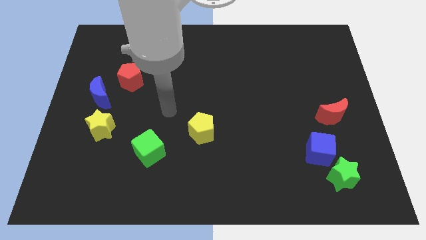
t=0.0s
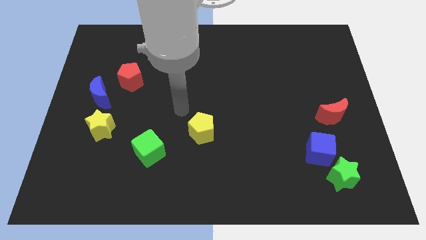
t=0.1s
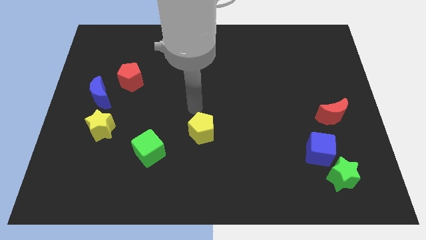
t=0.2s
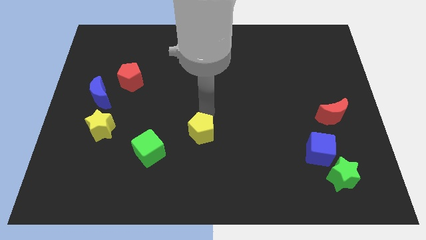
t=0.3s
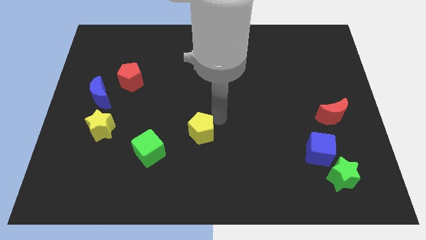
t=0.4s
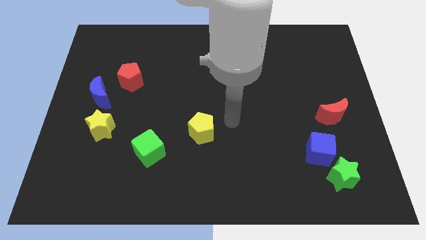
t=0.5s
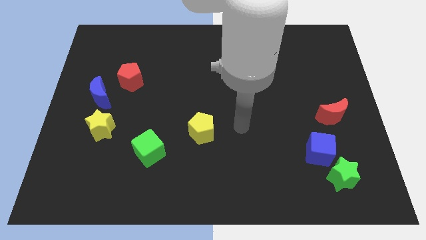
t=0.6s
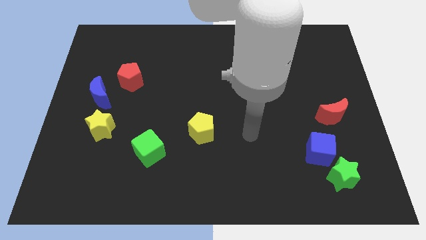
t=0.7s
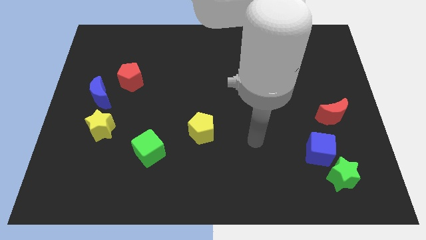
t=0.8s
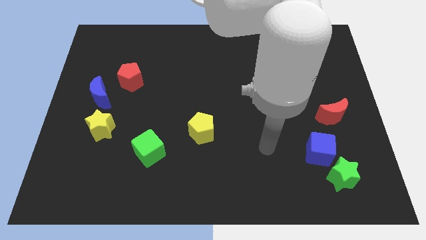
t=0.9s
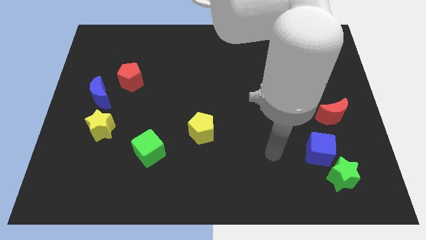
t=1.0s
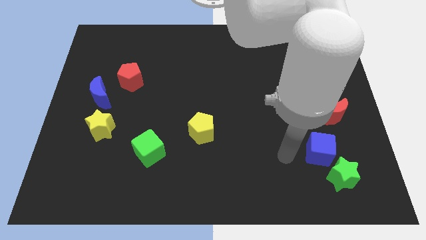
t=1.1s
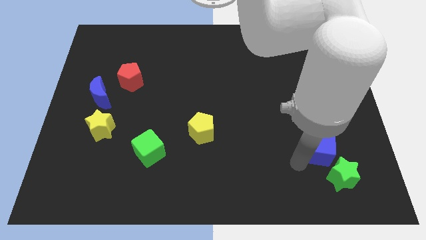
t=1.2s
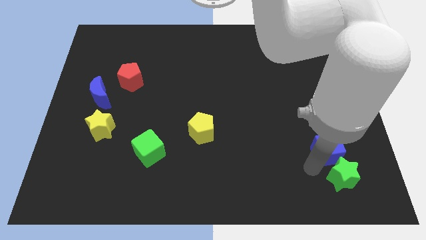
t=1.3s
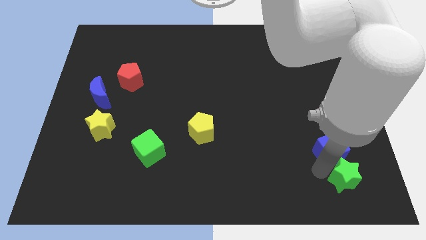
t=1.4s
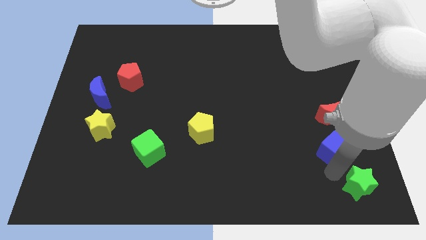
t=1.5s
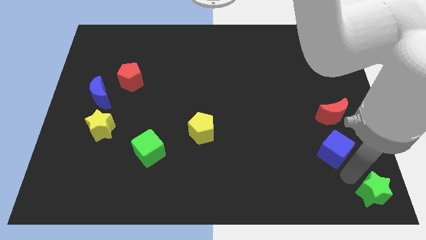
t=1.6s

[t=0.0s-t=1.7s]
move the blue cube away from the green star

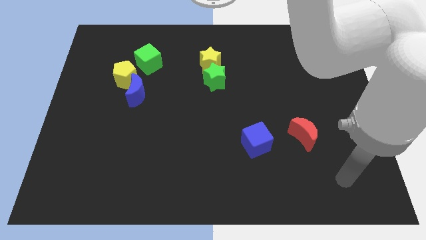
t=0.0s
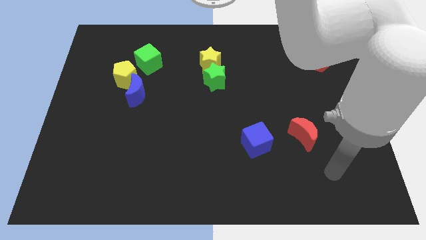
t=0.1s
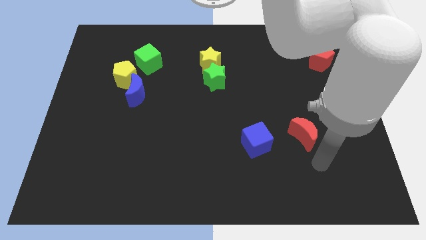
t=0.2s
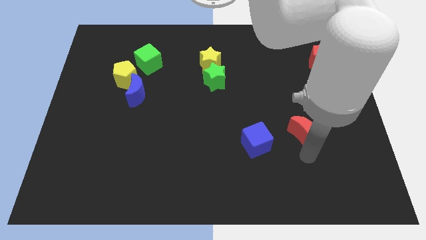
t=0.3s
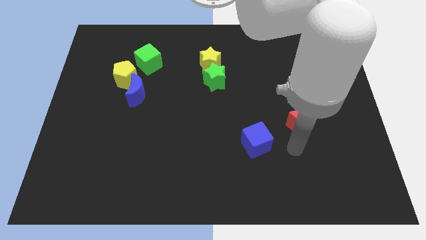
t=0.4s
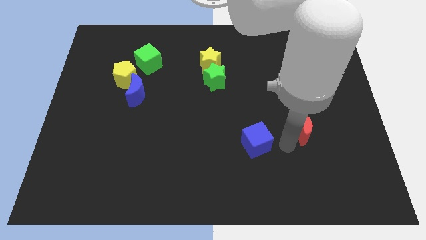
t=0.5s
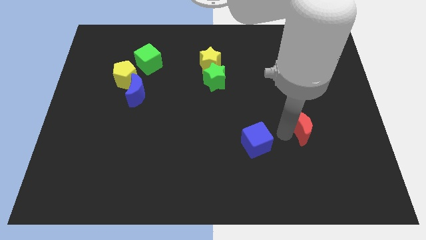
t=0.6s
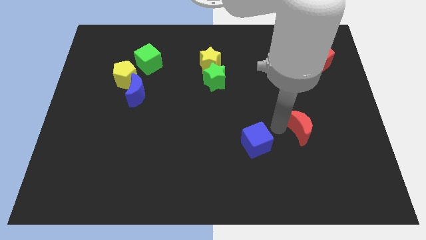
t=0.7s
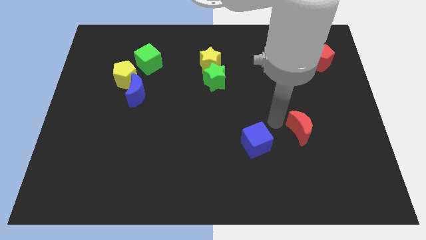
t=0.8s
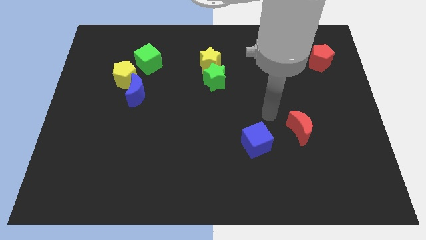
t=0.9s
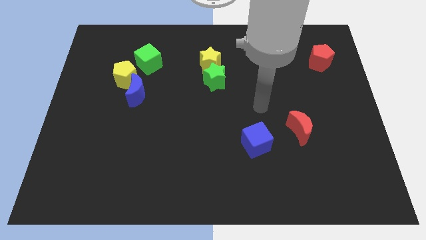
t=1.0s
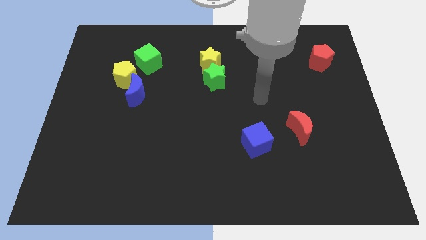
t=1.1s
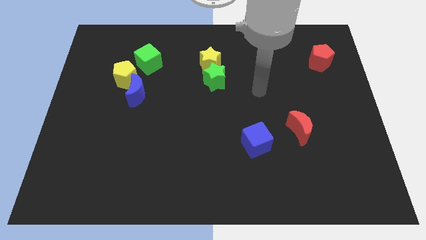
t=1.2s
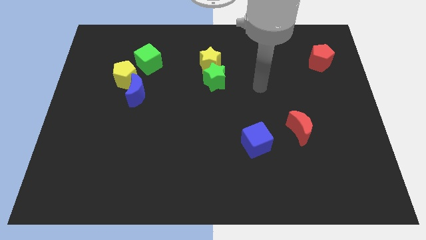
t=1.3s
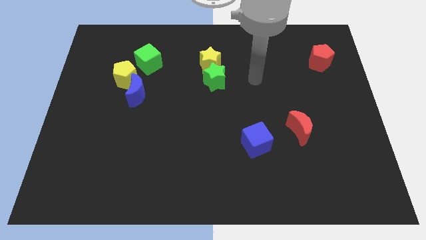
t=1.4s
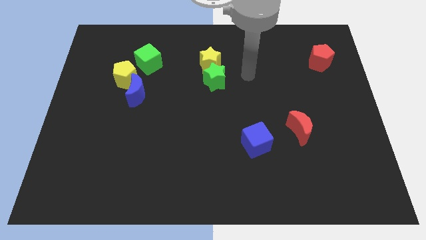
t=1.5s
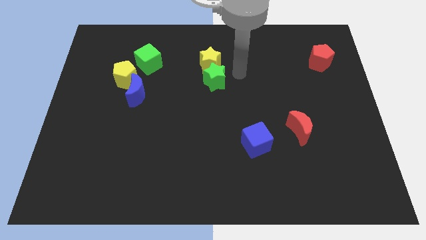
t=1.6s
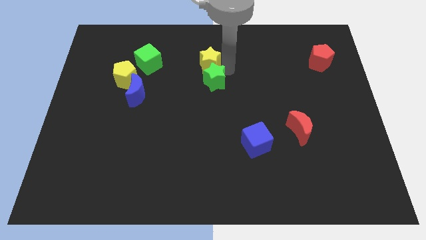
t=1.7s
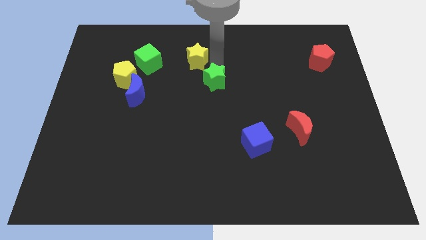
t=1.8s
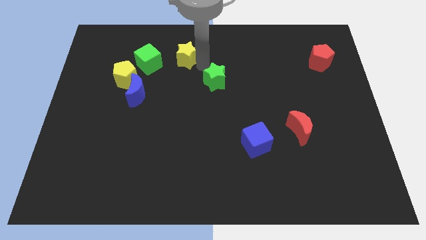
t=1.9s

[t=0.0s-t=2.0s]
pull the green star apart from the yellow star

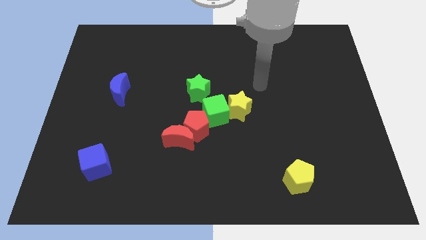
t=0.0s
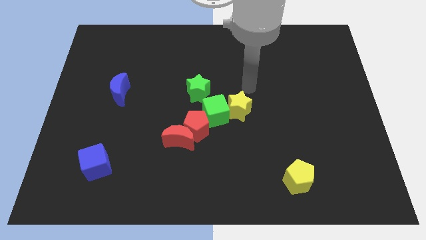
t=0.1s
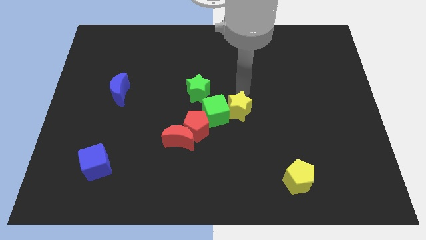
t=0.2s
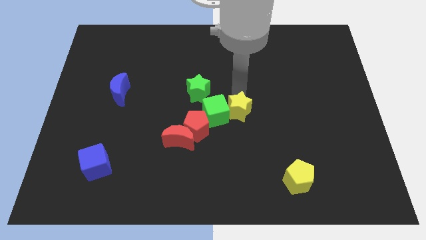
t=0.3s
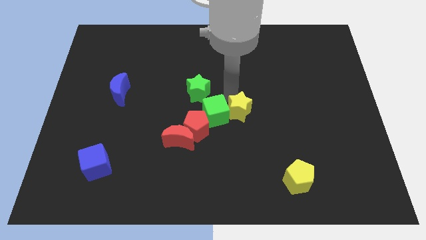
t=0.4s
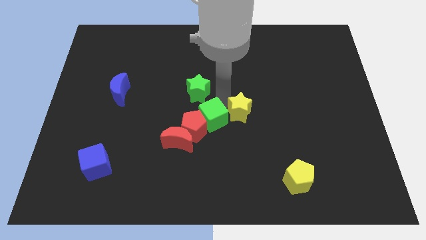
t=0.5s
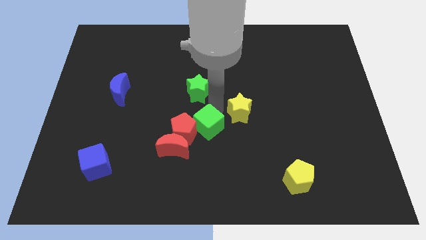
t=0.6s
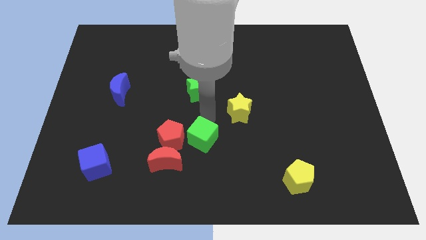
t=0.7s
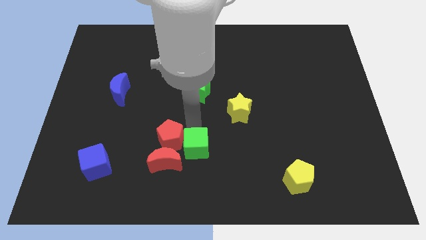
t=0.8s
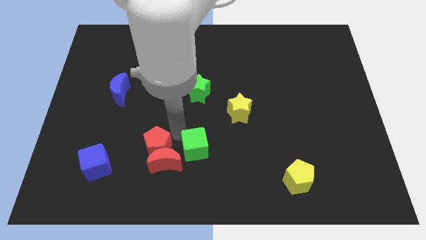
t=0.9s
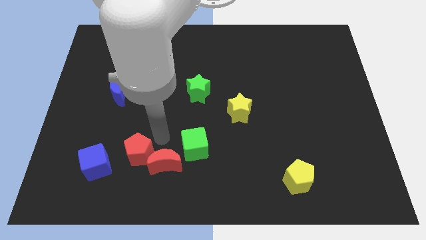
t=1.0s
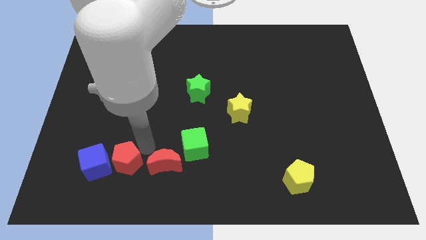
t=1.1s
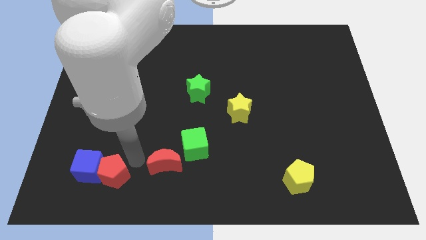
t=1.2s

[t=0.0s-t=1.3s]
move the red moon away from the red pentagon

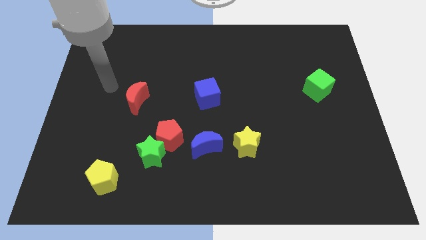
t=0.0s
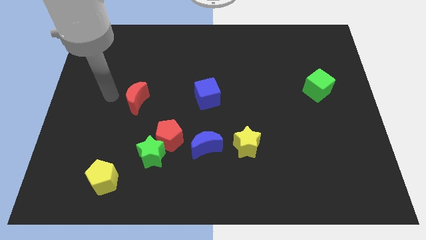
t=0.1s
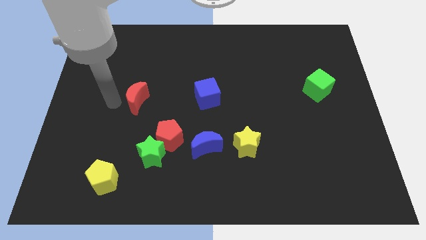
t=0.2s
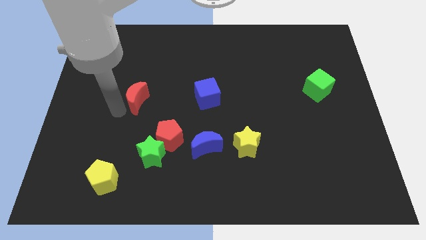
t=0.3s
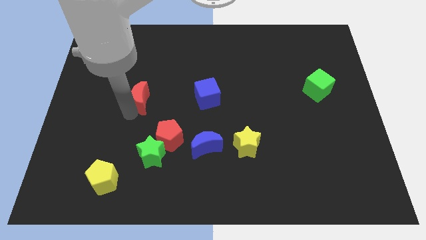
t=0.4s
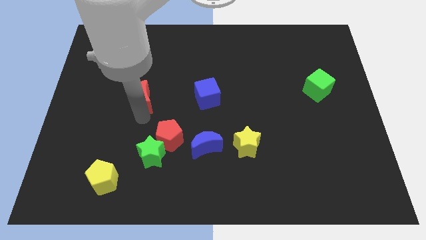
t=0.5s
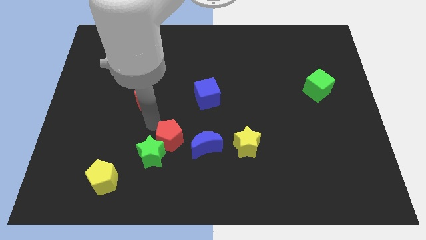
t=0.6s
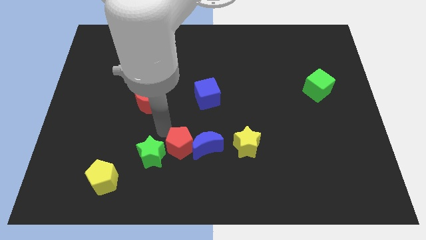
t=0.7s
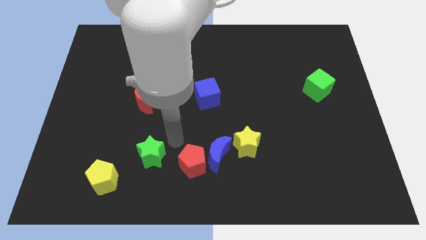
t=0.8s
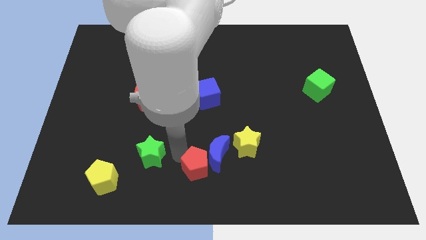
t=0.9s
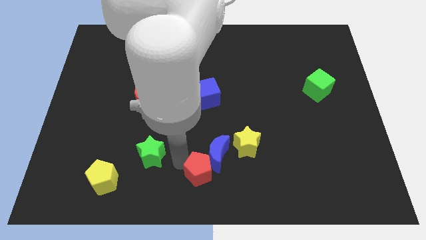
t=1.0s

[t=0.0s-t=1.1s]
move the green star away from the red pentagon

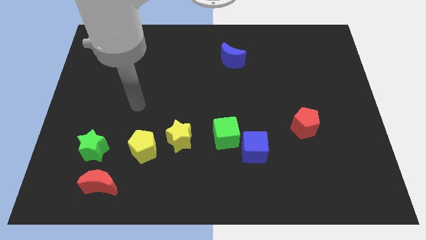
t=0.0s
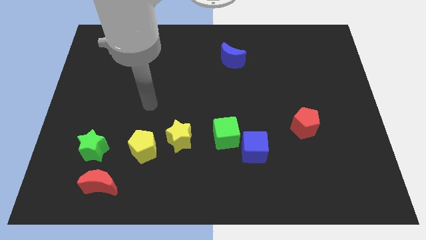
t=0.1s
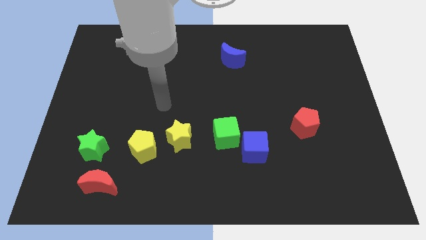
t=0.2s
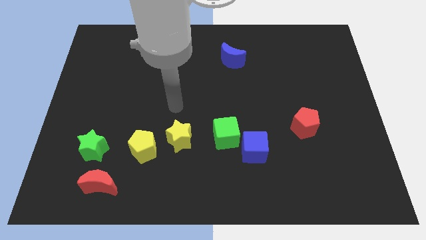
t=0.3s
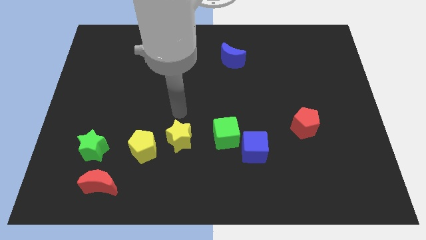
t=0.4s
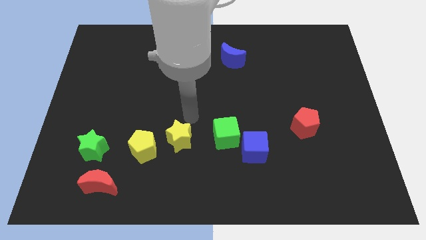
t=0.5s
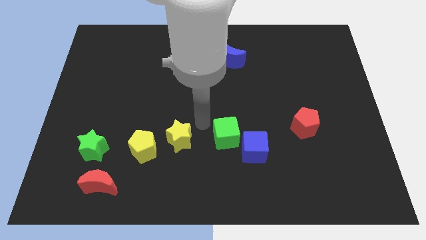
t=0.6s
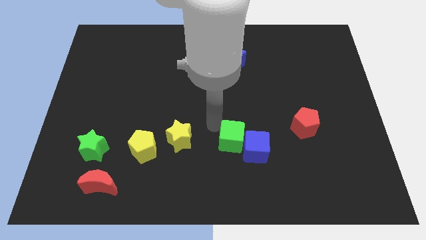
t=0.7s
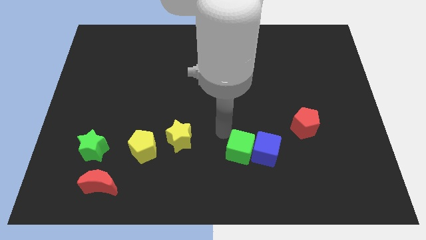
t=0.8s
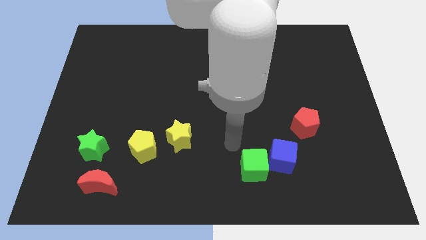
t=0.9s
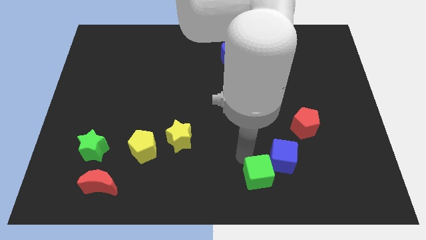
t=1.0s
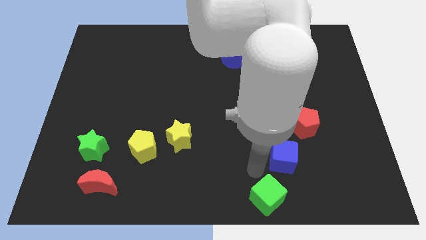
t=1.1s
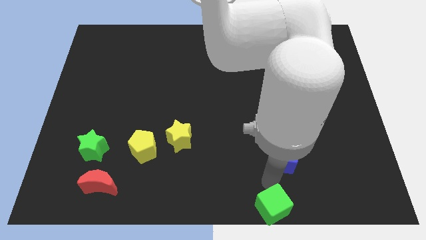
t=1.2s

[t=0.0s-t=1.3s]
separate the blue cube from the green cube

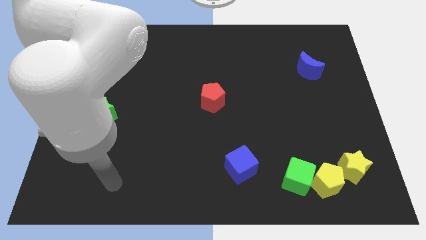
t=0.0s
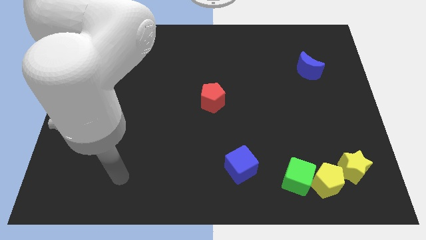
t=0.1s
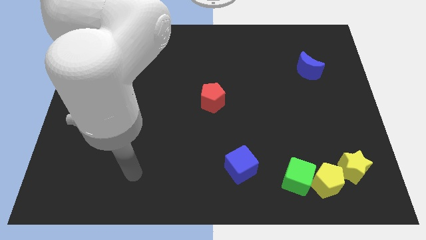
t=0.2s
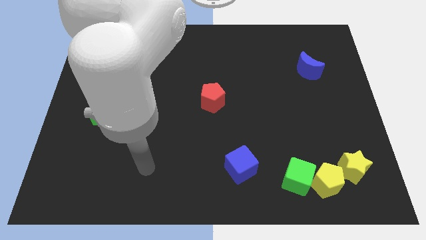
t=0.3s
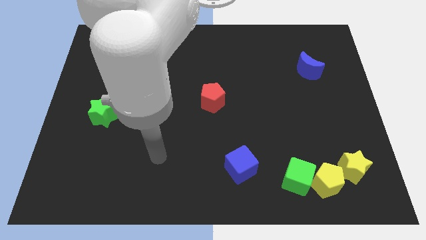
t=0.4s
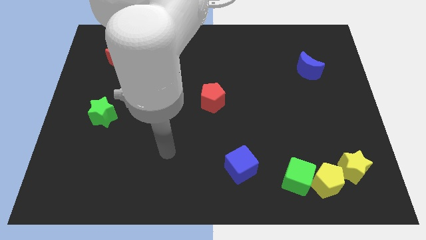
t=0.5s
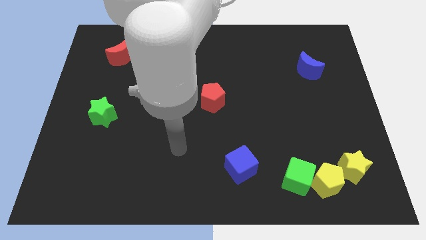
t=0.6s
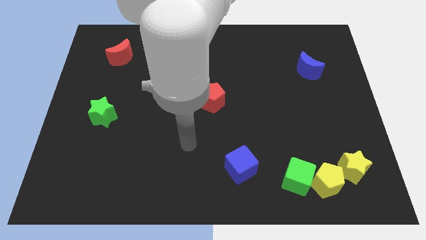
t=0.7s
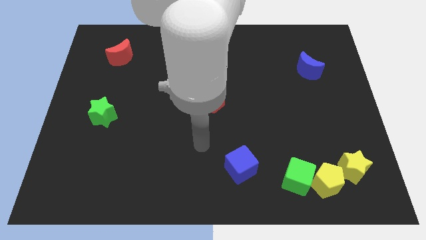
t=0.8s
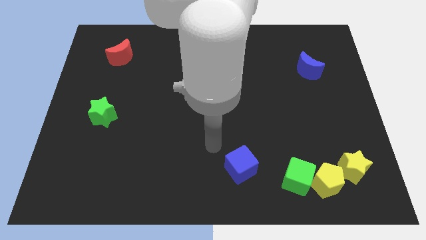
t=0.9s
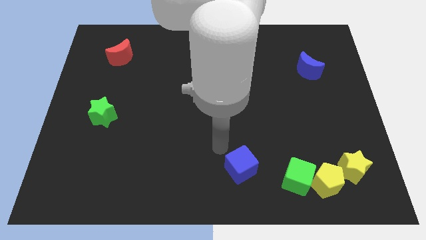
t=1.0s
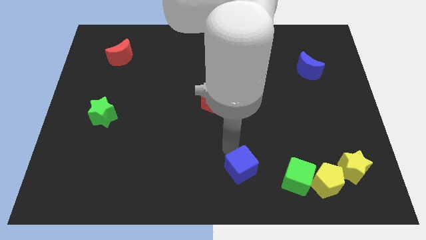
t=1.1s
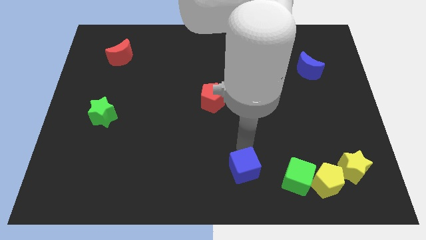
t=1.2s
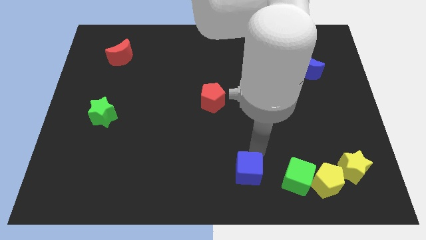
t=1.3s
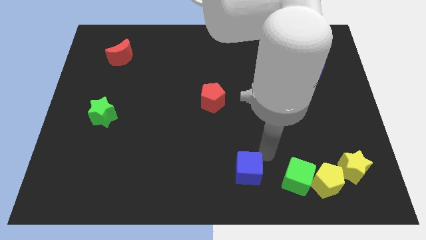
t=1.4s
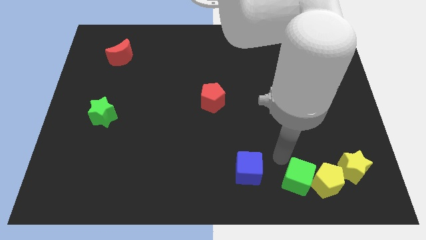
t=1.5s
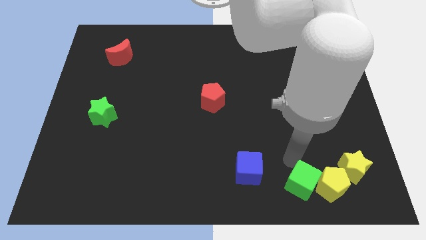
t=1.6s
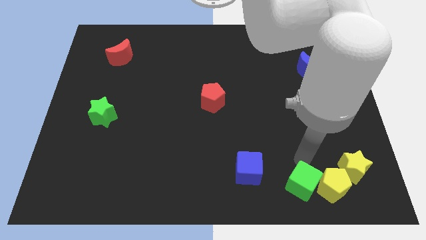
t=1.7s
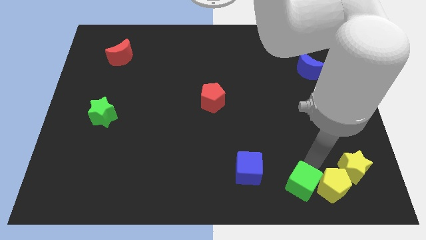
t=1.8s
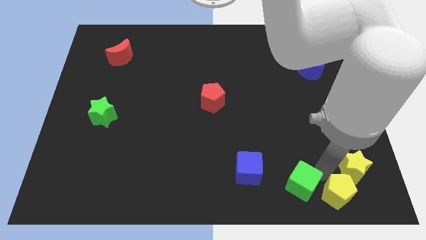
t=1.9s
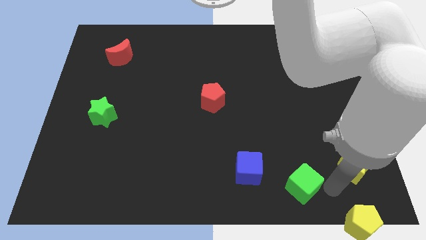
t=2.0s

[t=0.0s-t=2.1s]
separate the green cube from the yellow pentagon
